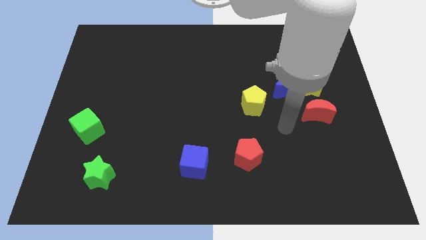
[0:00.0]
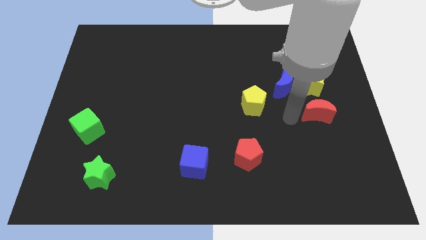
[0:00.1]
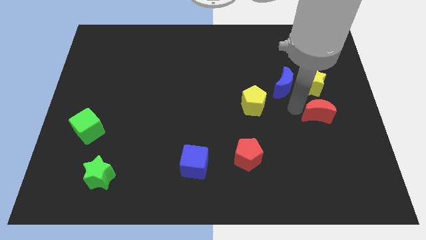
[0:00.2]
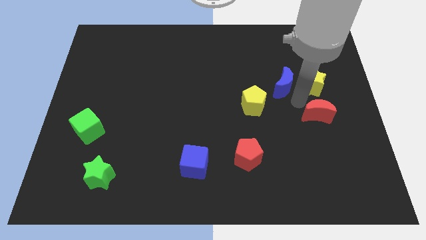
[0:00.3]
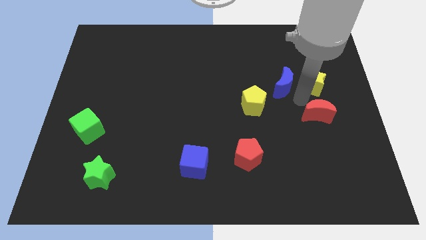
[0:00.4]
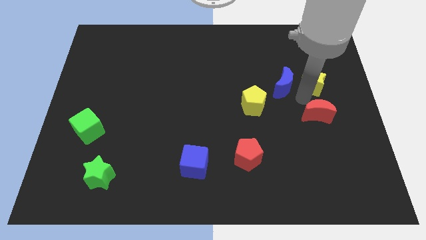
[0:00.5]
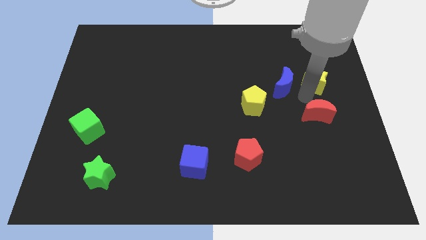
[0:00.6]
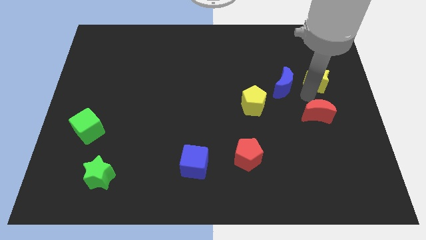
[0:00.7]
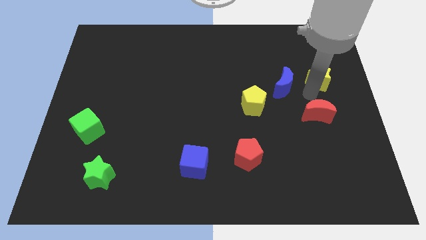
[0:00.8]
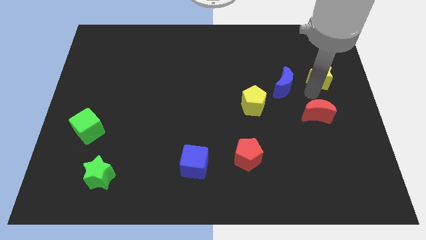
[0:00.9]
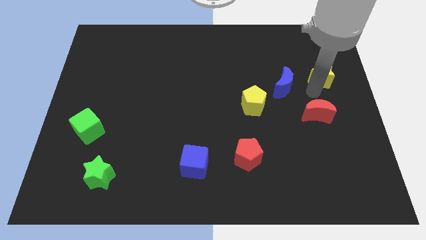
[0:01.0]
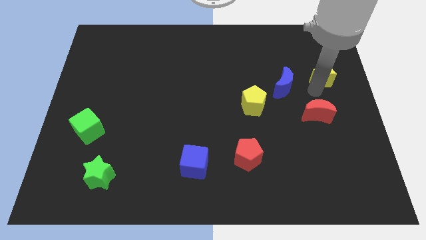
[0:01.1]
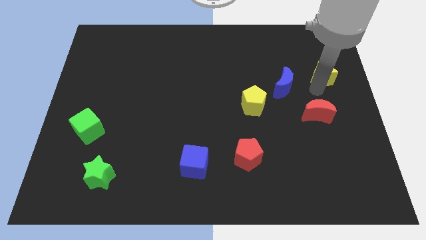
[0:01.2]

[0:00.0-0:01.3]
pull the yellow star apart from the blue moon and red moon

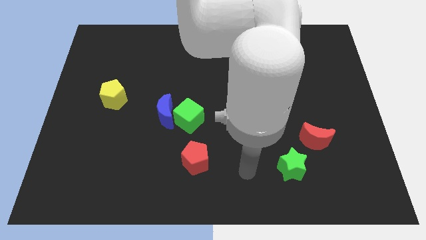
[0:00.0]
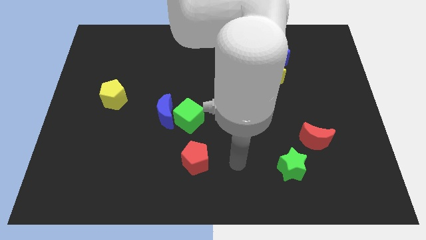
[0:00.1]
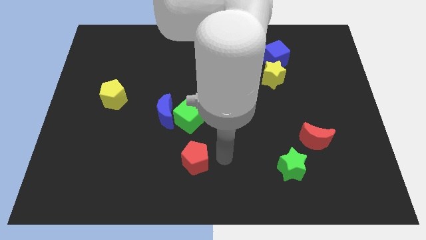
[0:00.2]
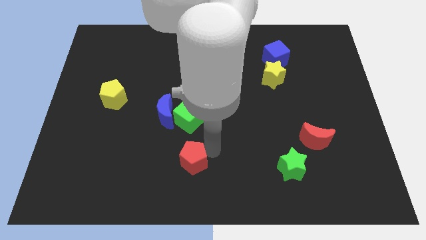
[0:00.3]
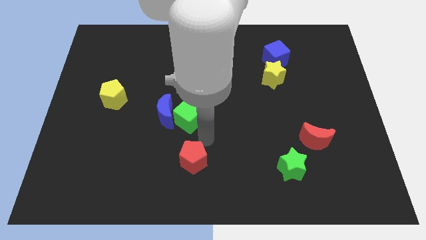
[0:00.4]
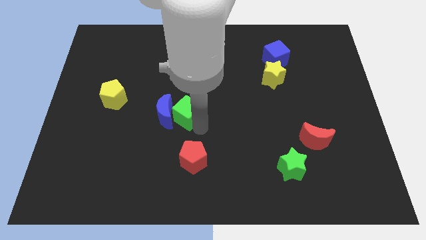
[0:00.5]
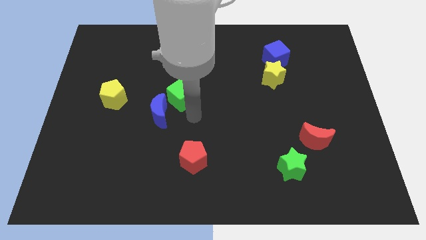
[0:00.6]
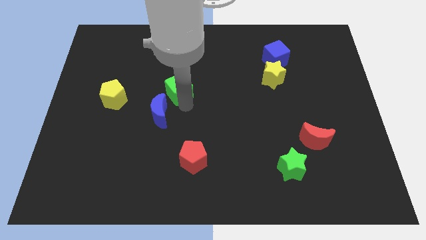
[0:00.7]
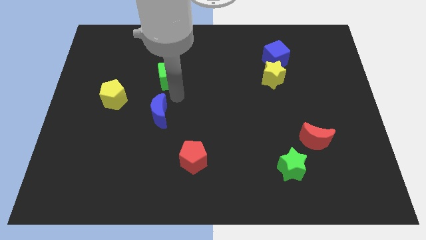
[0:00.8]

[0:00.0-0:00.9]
separate the blue moon from the green cube

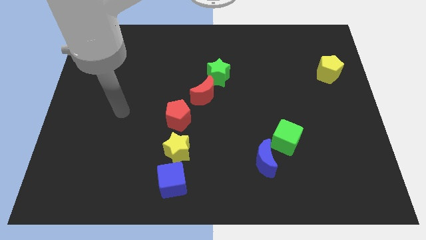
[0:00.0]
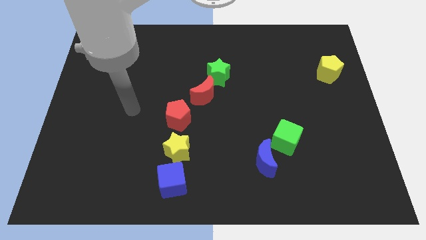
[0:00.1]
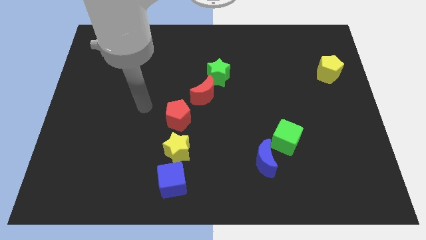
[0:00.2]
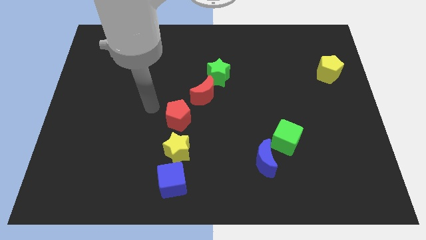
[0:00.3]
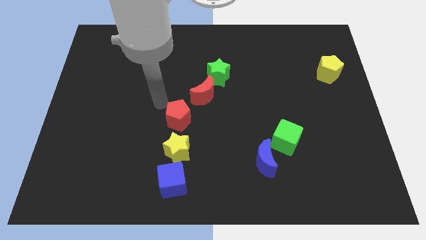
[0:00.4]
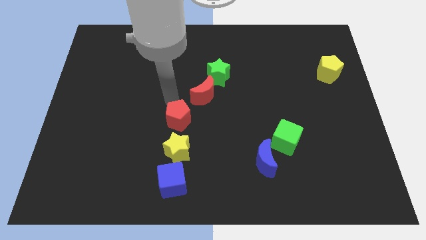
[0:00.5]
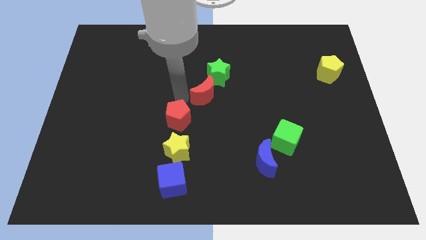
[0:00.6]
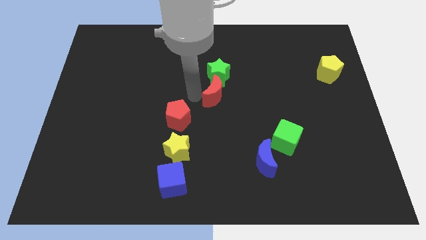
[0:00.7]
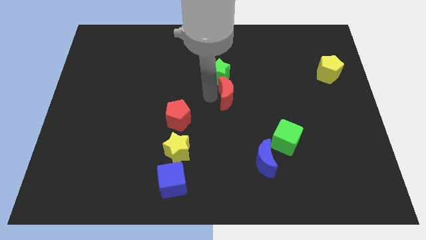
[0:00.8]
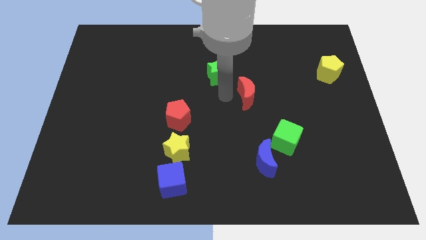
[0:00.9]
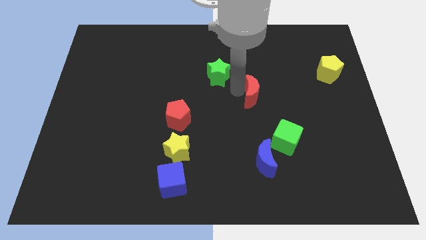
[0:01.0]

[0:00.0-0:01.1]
move the green star away from the red moon

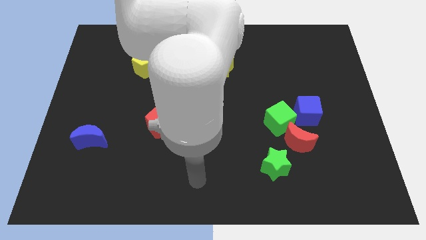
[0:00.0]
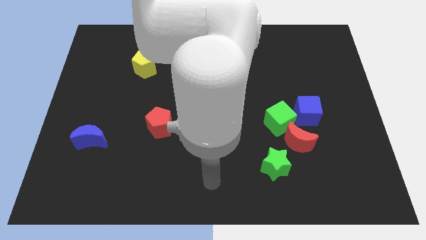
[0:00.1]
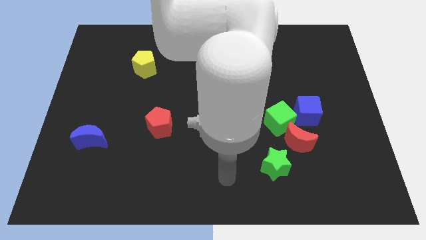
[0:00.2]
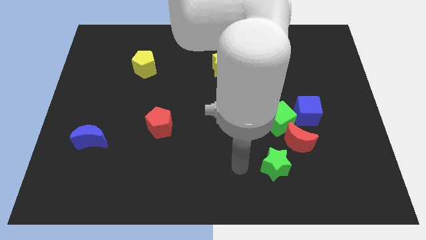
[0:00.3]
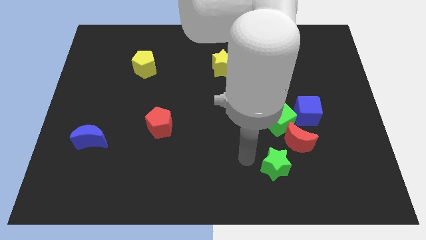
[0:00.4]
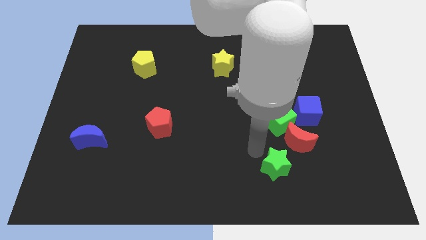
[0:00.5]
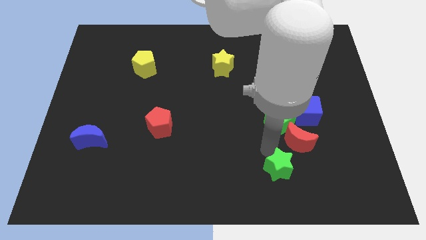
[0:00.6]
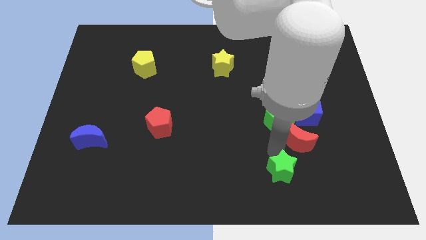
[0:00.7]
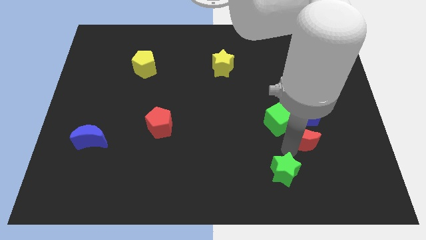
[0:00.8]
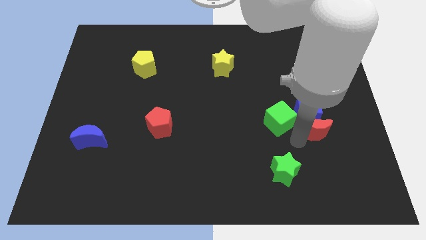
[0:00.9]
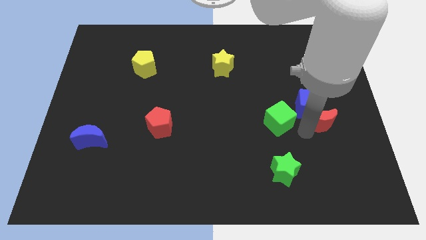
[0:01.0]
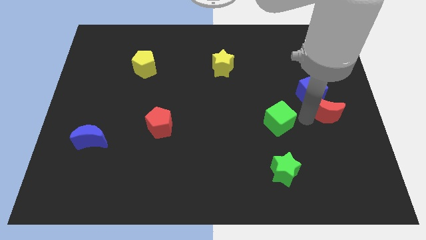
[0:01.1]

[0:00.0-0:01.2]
pull the green cube apart from the red moon and blue cube

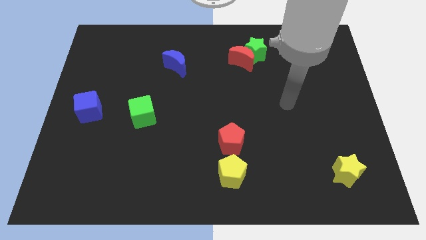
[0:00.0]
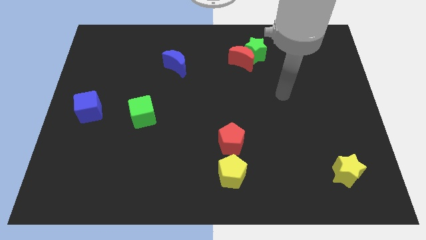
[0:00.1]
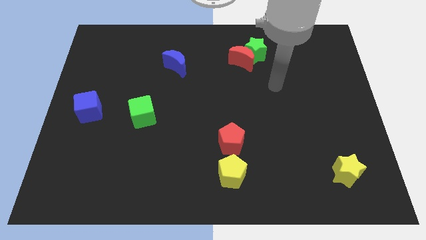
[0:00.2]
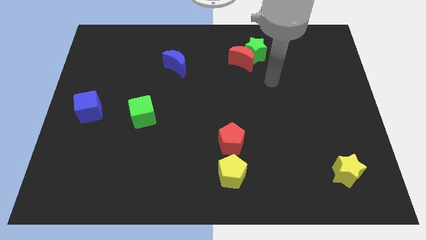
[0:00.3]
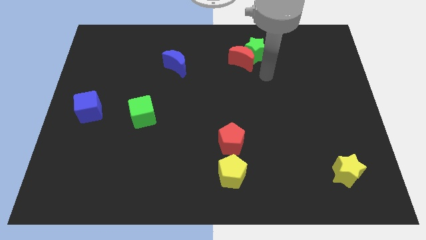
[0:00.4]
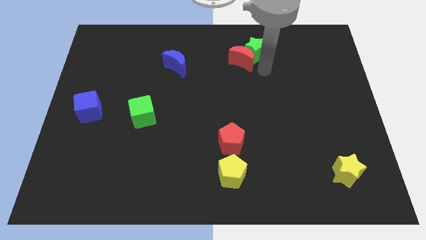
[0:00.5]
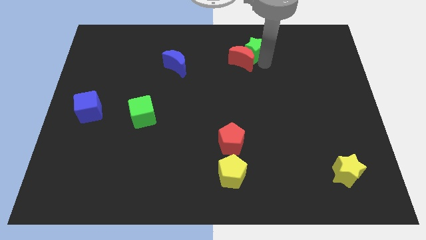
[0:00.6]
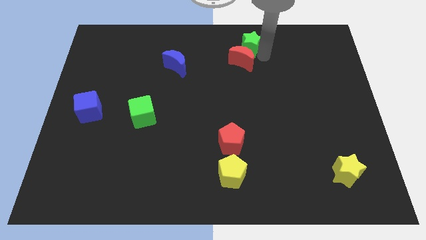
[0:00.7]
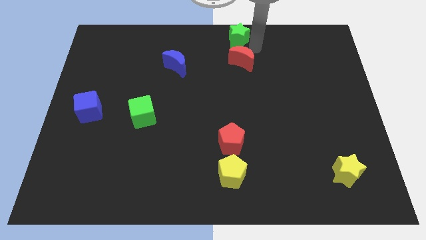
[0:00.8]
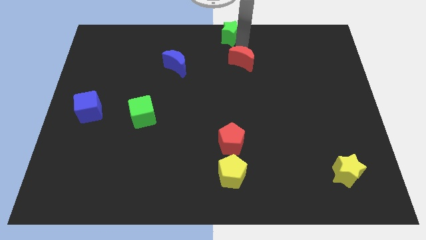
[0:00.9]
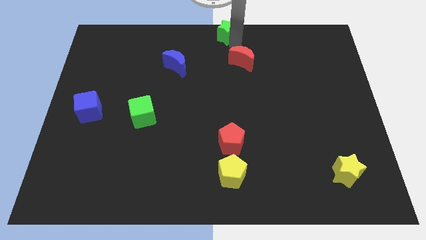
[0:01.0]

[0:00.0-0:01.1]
separate the red moon from the green star

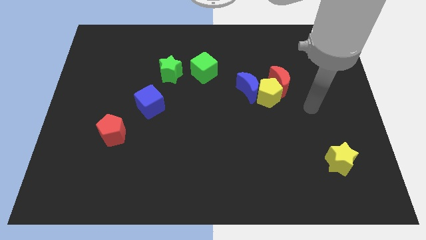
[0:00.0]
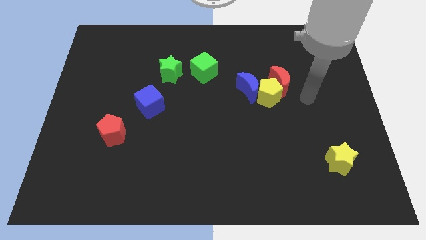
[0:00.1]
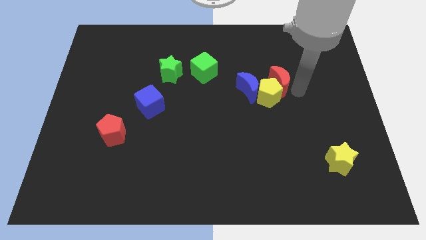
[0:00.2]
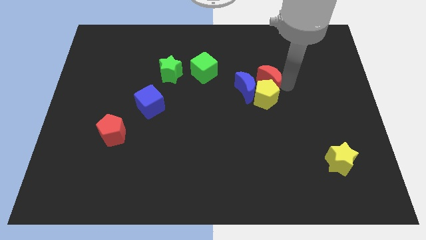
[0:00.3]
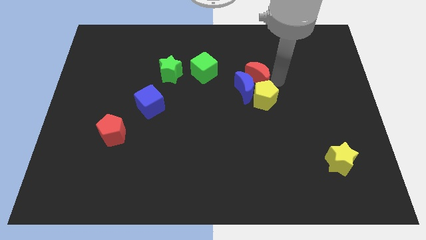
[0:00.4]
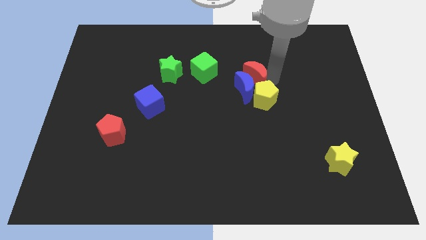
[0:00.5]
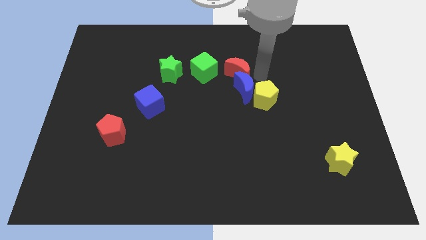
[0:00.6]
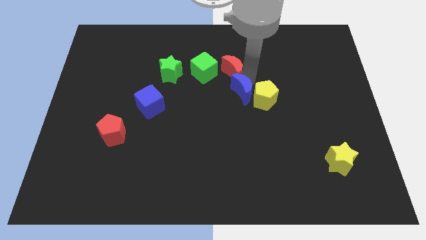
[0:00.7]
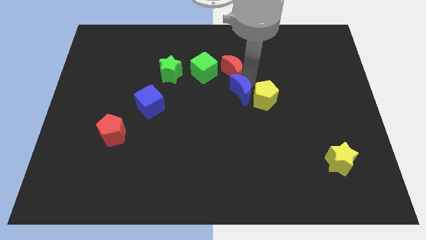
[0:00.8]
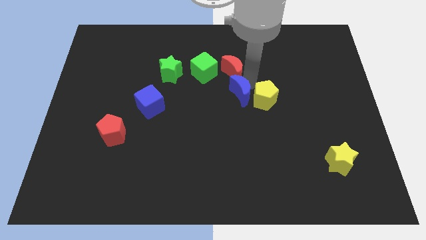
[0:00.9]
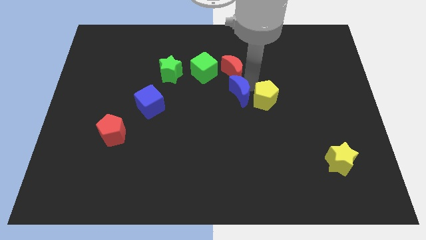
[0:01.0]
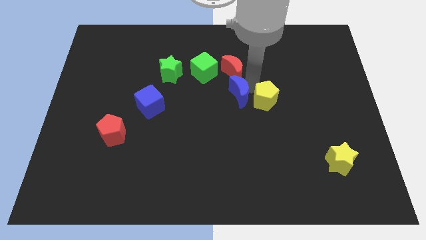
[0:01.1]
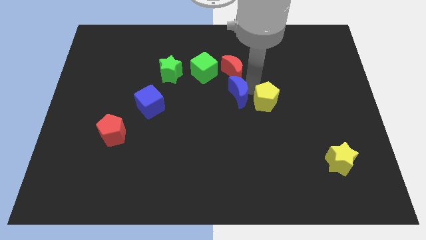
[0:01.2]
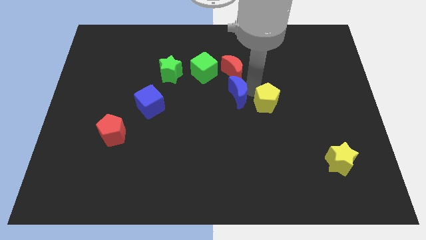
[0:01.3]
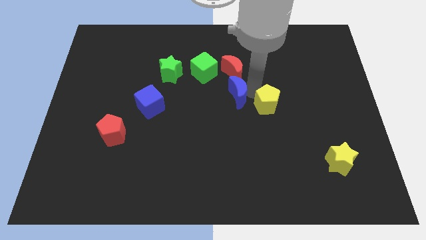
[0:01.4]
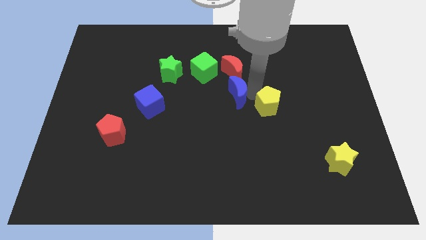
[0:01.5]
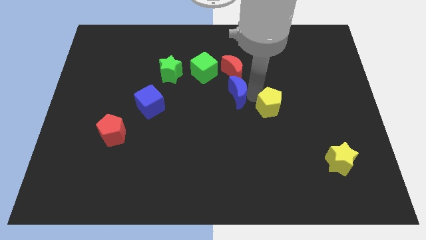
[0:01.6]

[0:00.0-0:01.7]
move the yellow pentagon away from the blue moon and red moon

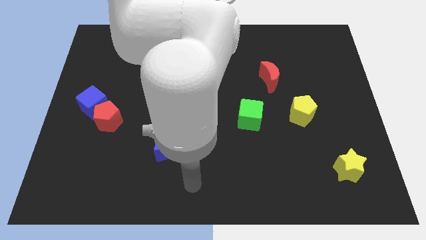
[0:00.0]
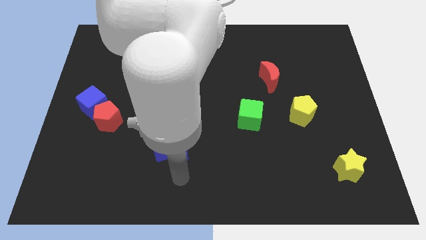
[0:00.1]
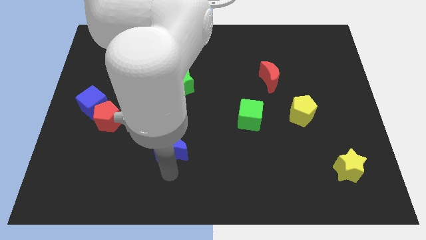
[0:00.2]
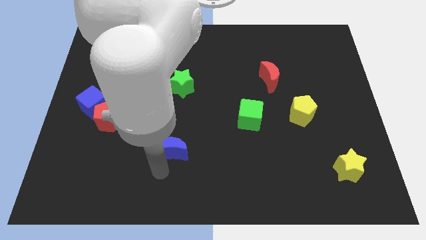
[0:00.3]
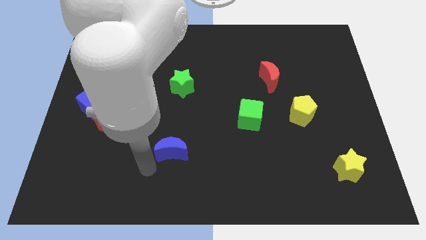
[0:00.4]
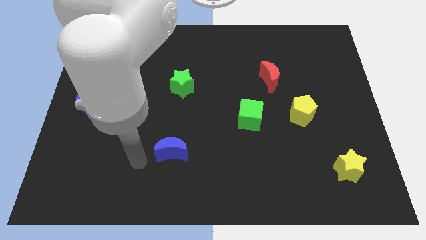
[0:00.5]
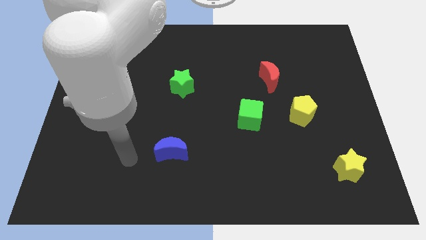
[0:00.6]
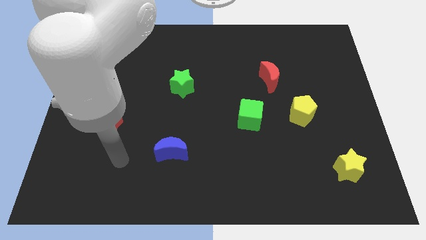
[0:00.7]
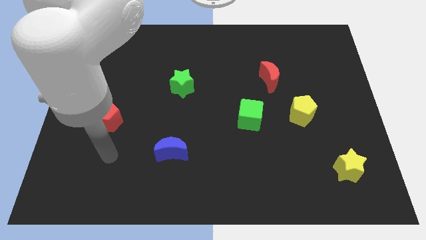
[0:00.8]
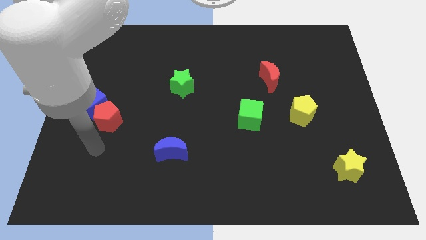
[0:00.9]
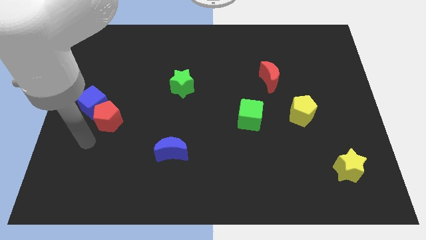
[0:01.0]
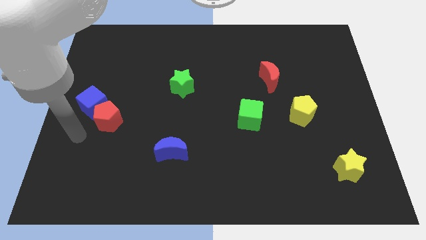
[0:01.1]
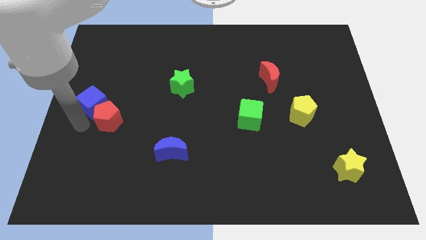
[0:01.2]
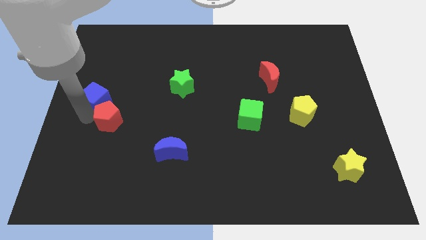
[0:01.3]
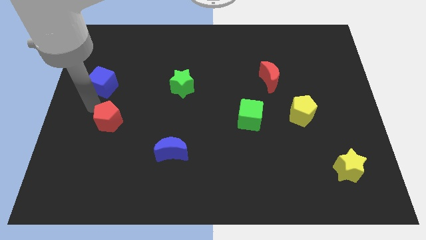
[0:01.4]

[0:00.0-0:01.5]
separate the red pentagon from the blue cube

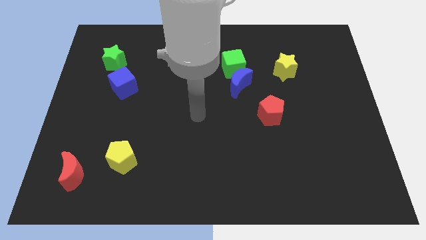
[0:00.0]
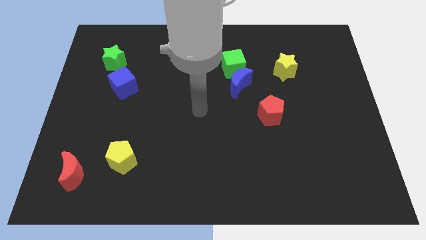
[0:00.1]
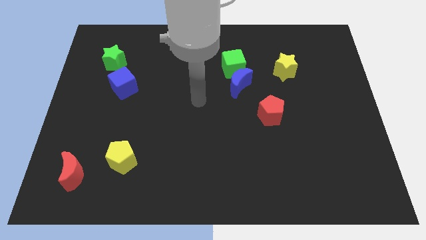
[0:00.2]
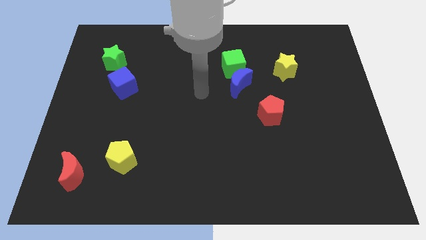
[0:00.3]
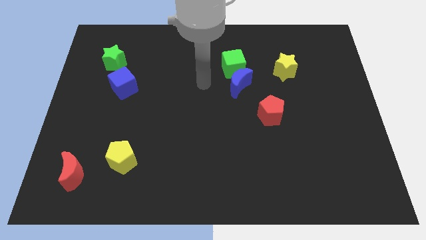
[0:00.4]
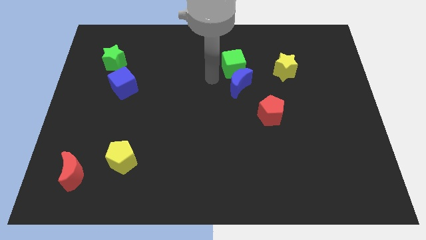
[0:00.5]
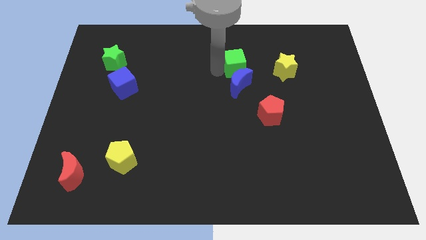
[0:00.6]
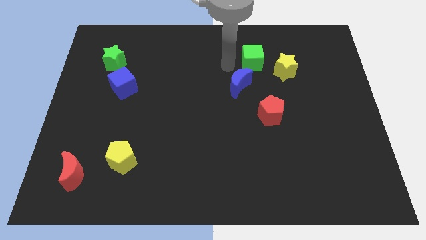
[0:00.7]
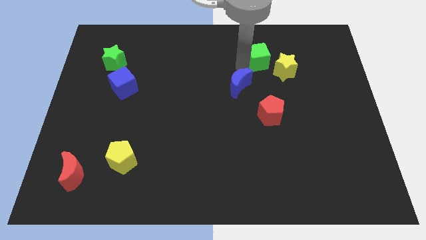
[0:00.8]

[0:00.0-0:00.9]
move the blue moon away from the green cube
